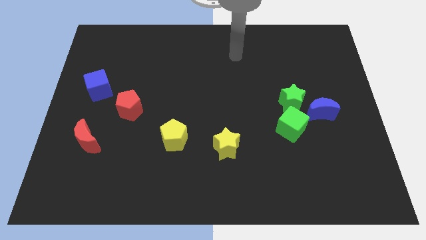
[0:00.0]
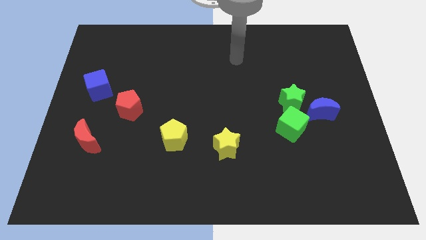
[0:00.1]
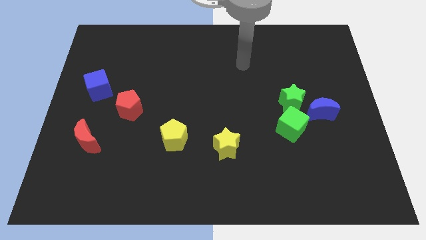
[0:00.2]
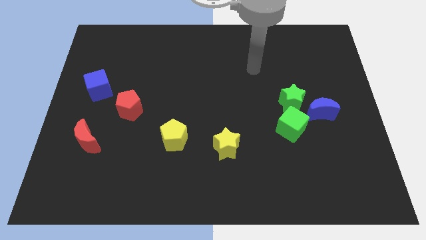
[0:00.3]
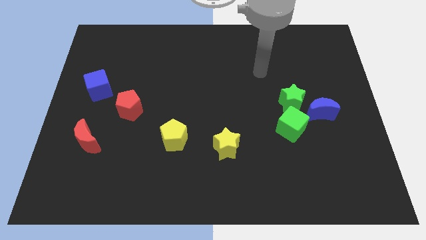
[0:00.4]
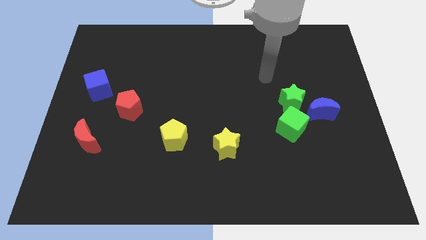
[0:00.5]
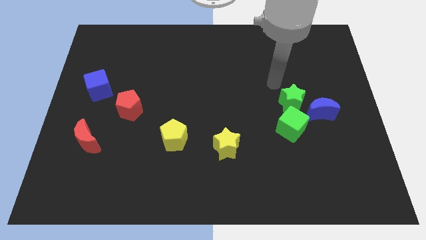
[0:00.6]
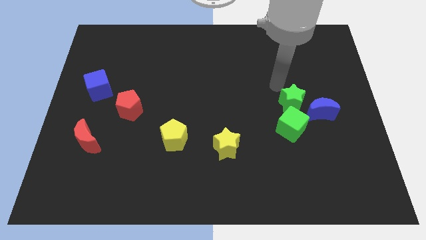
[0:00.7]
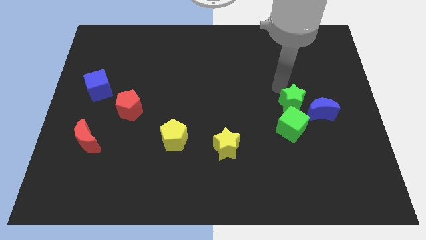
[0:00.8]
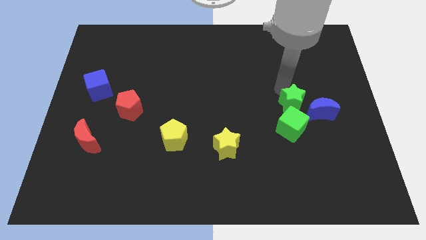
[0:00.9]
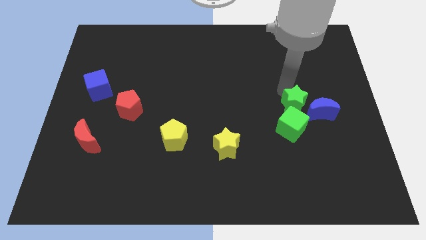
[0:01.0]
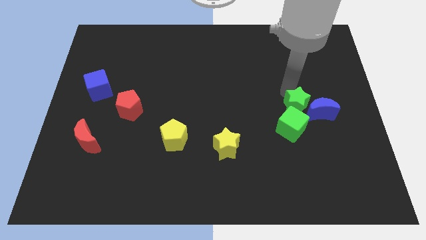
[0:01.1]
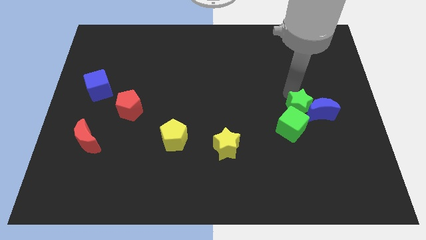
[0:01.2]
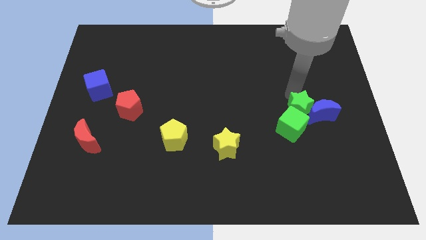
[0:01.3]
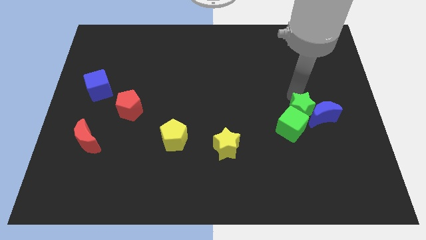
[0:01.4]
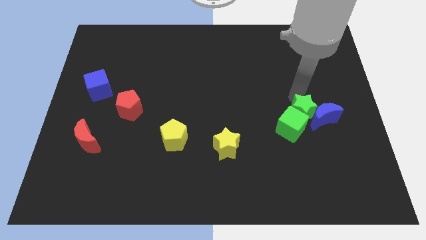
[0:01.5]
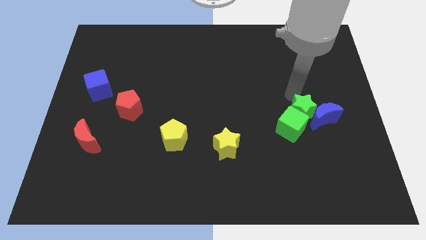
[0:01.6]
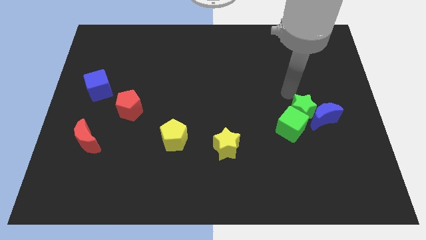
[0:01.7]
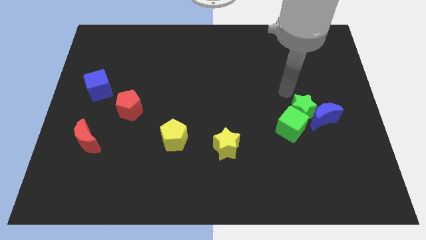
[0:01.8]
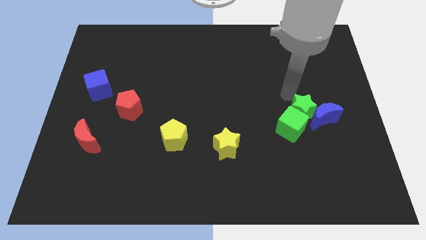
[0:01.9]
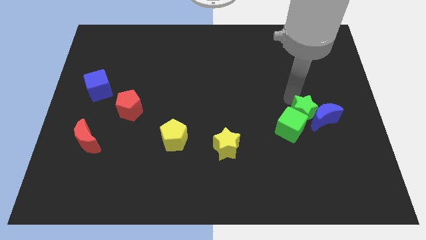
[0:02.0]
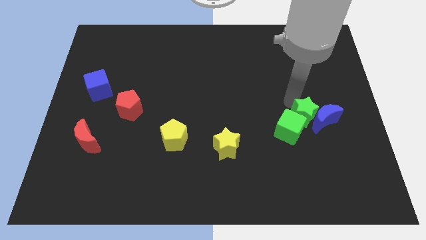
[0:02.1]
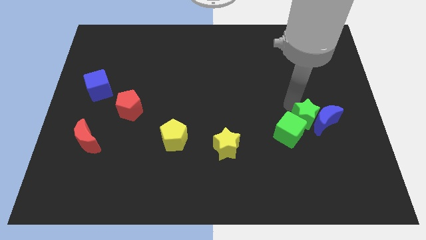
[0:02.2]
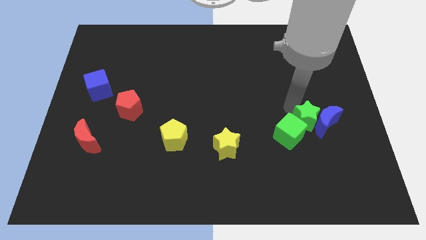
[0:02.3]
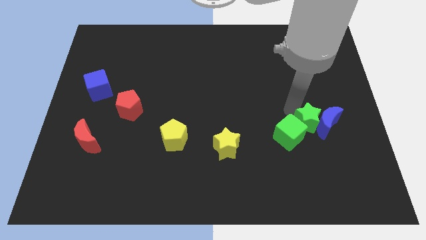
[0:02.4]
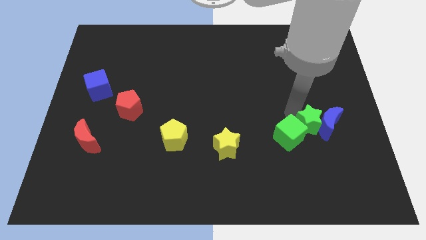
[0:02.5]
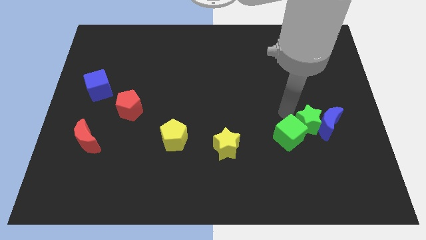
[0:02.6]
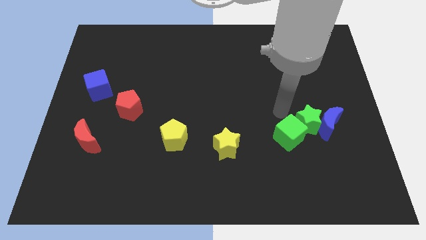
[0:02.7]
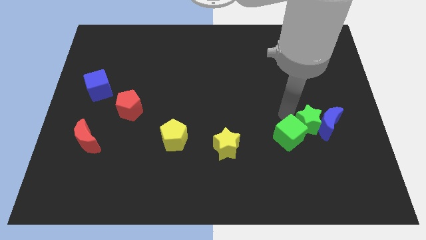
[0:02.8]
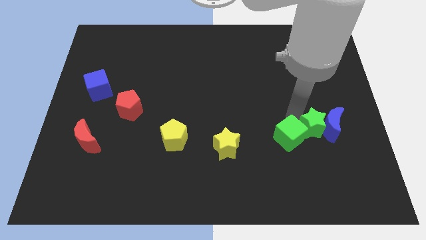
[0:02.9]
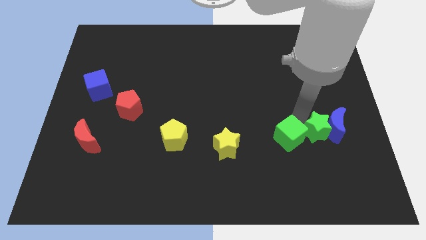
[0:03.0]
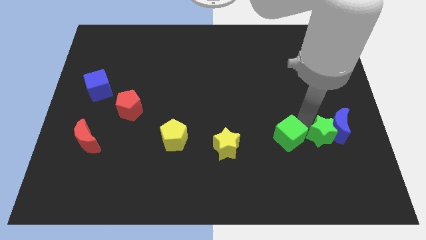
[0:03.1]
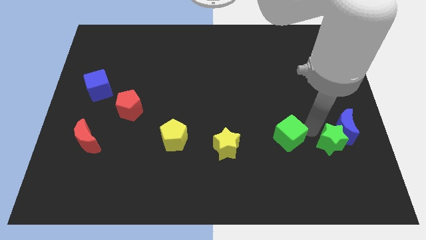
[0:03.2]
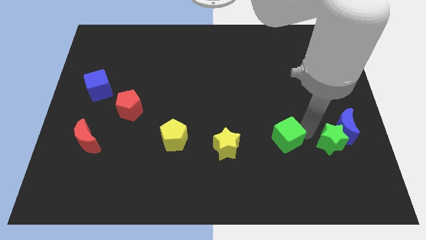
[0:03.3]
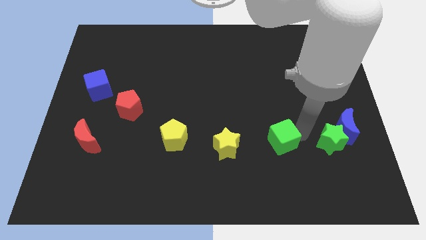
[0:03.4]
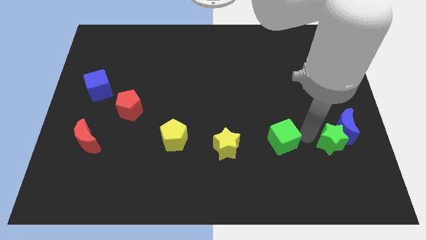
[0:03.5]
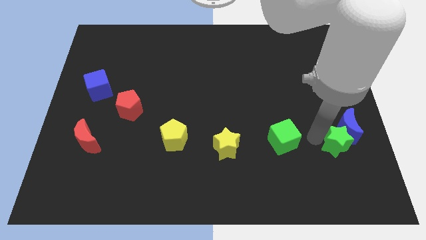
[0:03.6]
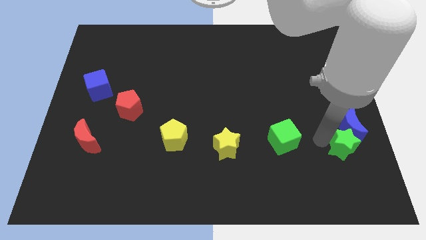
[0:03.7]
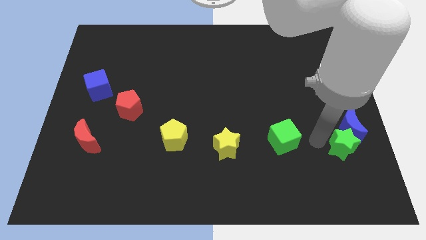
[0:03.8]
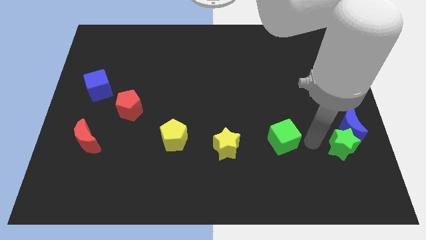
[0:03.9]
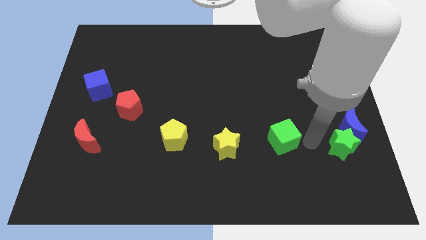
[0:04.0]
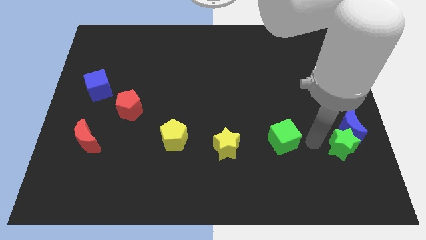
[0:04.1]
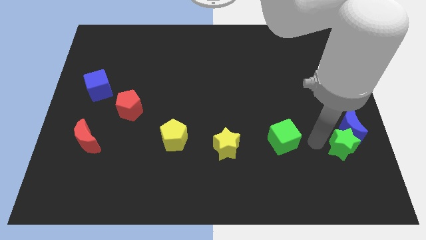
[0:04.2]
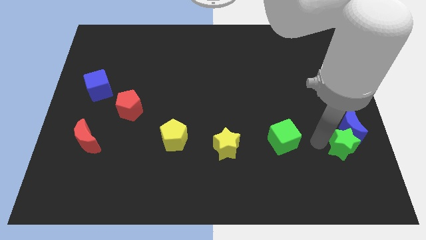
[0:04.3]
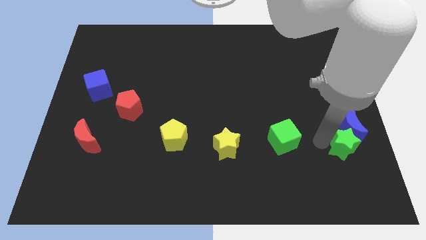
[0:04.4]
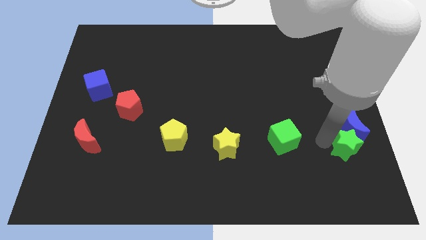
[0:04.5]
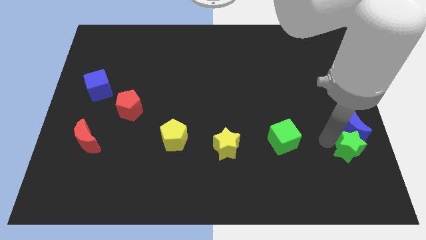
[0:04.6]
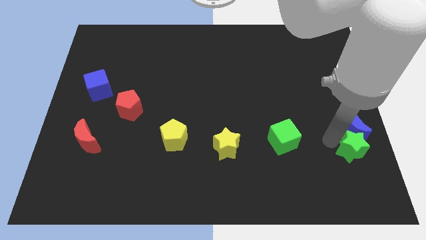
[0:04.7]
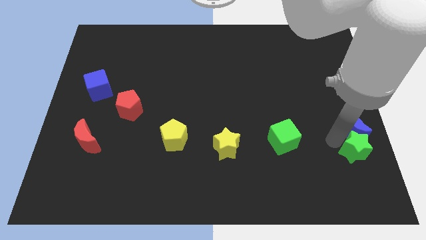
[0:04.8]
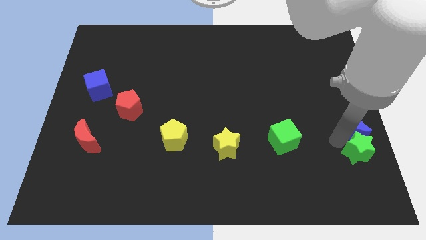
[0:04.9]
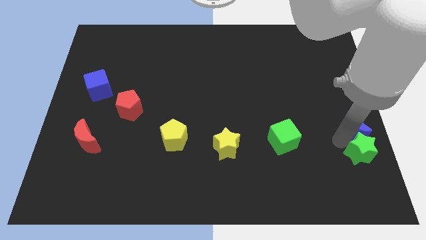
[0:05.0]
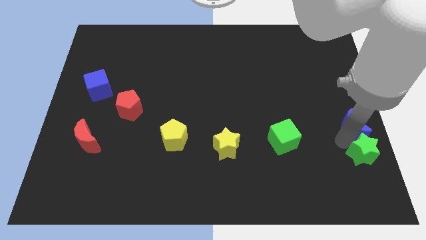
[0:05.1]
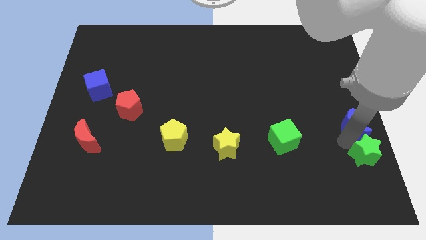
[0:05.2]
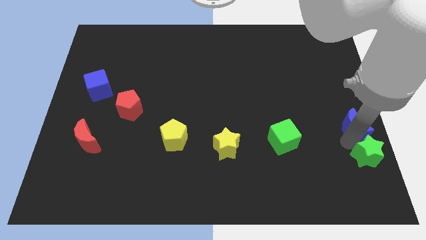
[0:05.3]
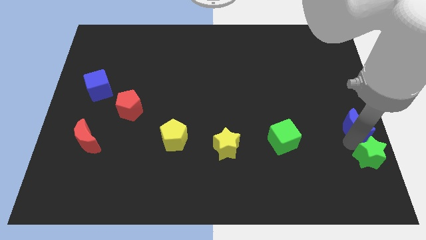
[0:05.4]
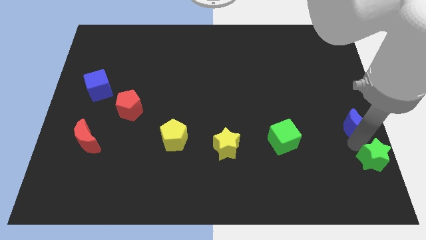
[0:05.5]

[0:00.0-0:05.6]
move the green star to the lower right corner

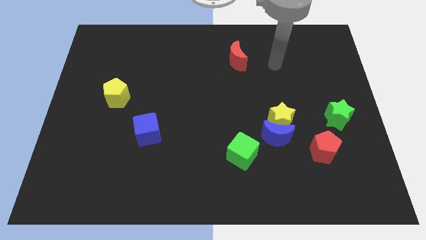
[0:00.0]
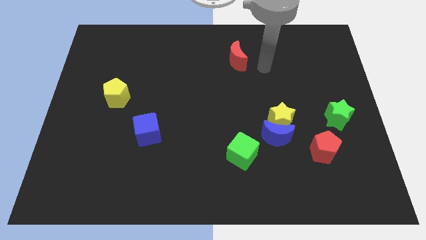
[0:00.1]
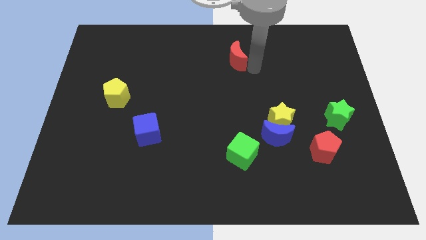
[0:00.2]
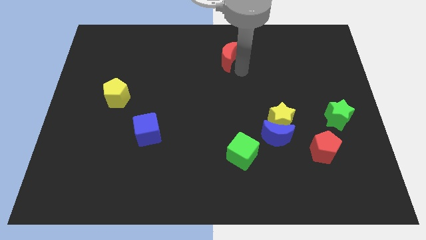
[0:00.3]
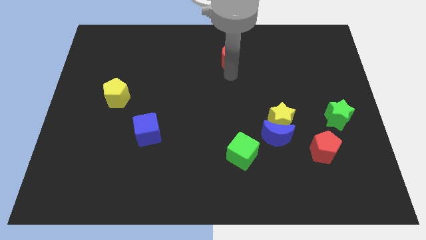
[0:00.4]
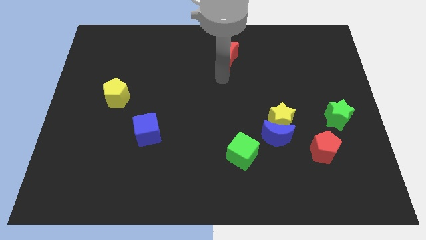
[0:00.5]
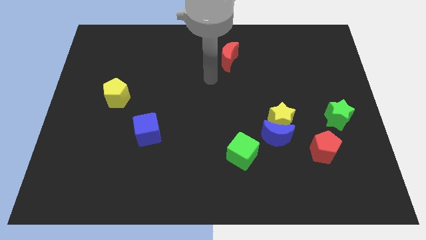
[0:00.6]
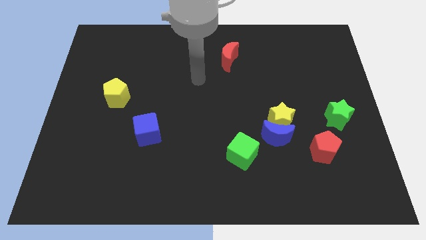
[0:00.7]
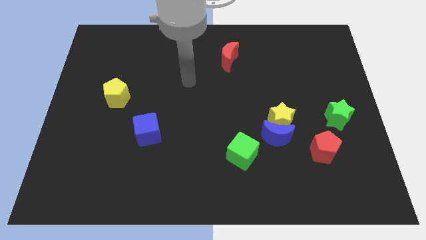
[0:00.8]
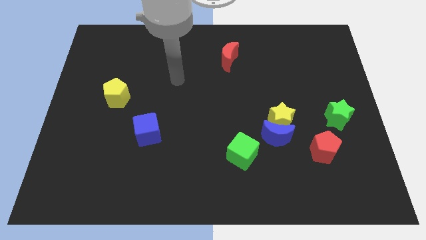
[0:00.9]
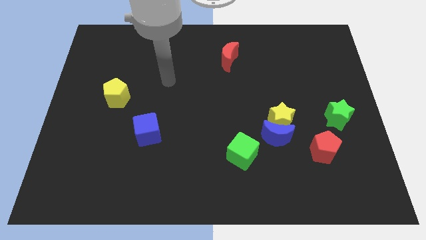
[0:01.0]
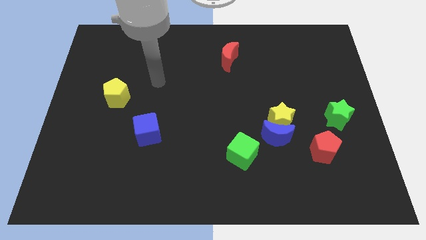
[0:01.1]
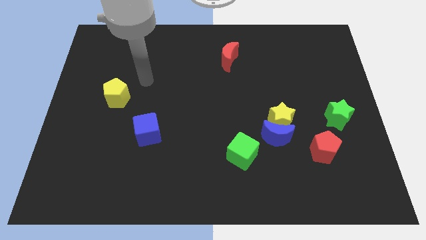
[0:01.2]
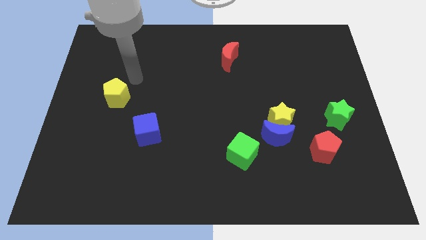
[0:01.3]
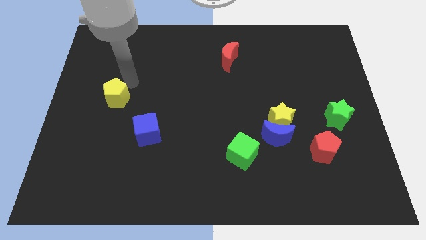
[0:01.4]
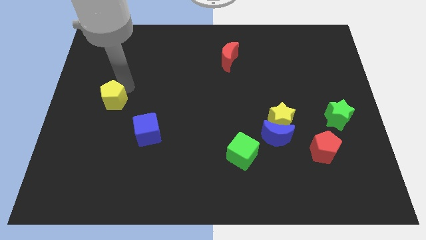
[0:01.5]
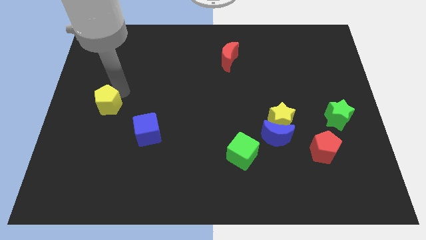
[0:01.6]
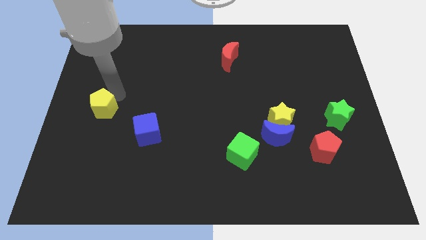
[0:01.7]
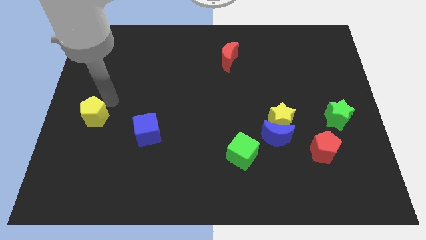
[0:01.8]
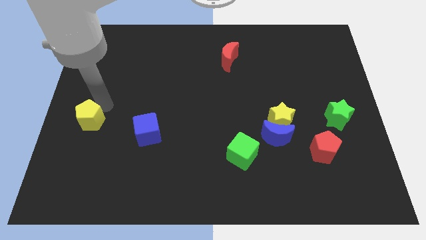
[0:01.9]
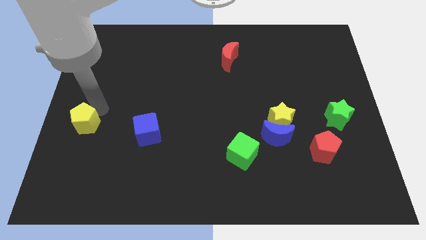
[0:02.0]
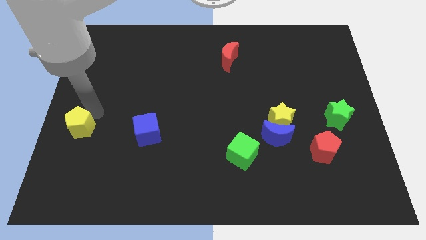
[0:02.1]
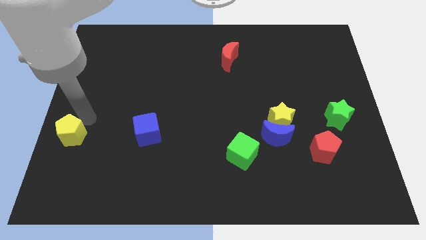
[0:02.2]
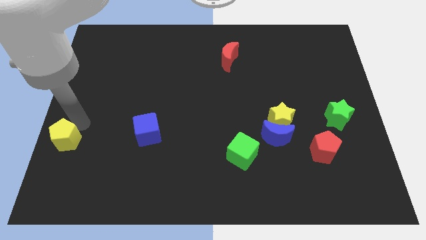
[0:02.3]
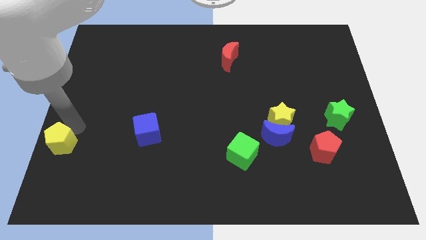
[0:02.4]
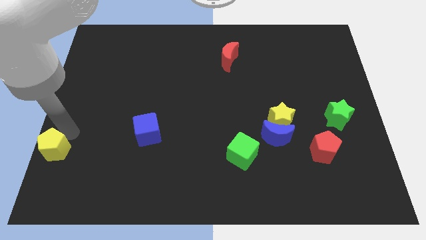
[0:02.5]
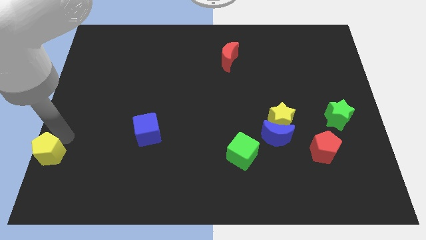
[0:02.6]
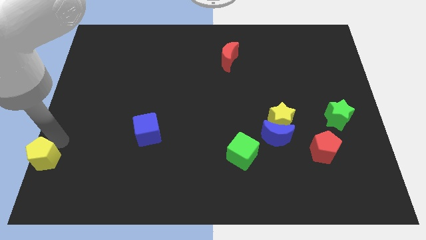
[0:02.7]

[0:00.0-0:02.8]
push the yellow pentagon to the bottom left of the board
